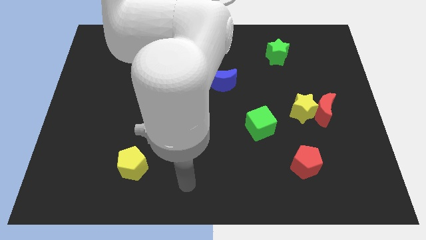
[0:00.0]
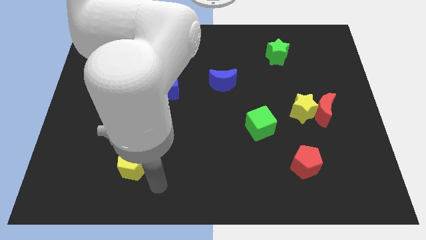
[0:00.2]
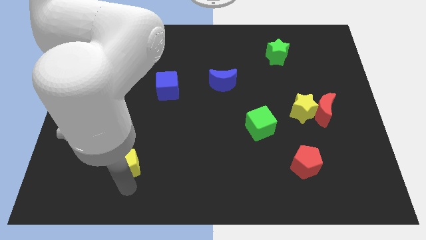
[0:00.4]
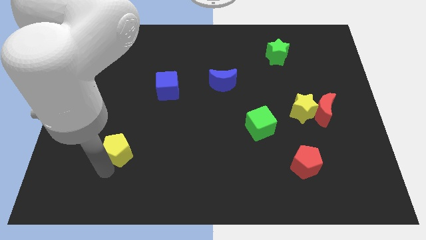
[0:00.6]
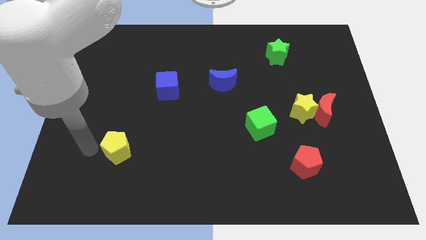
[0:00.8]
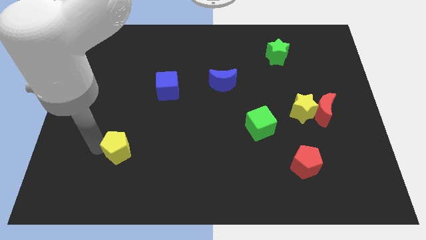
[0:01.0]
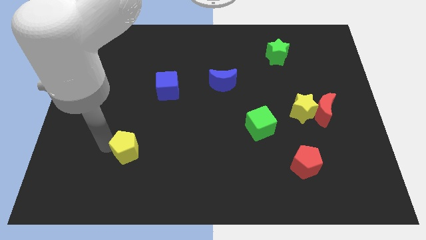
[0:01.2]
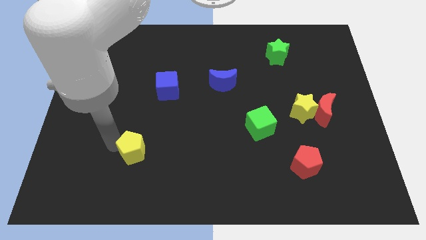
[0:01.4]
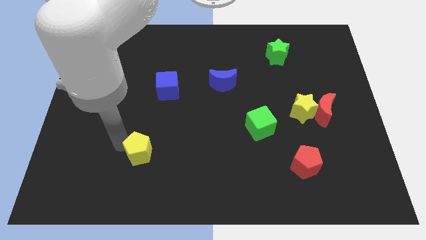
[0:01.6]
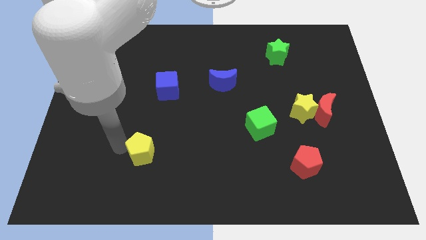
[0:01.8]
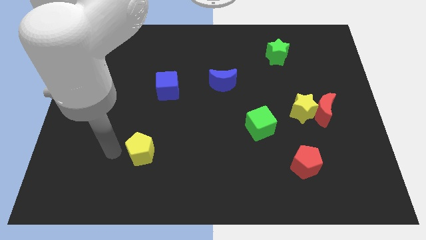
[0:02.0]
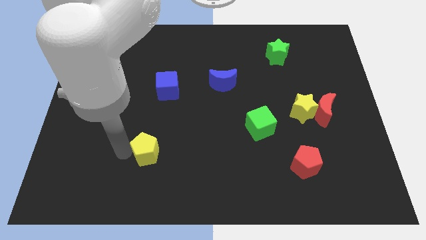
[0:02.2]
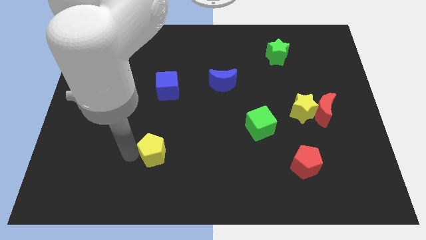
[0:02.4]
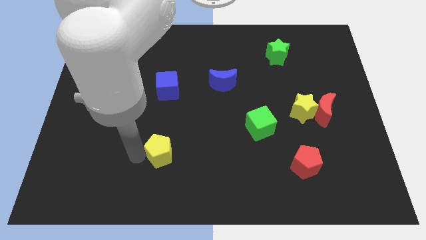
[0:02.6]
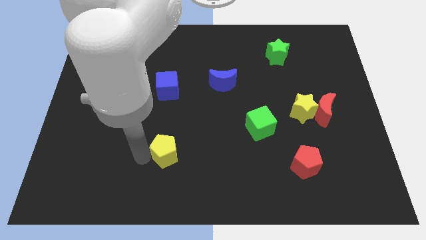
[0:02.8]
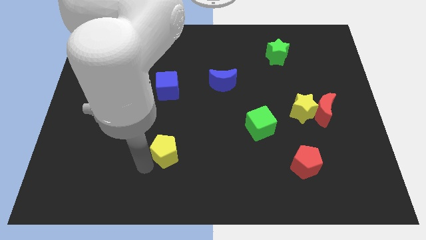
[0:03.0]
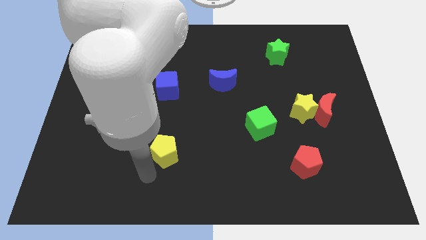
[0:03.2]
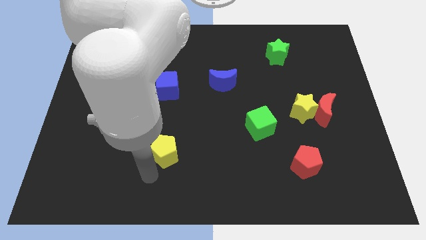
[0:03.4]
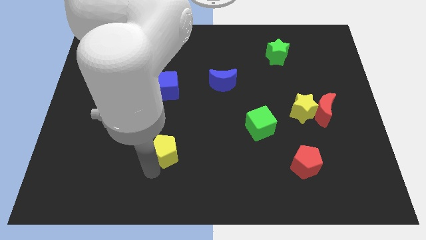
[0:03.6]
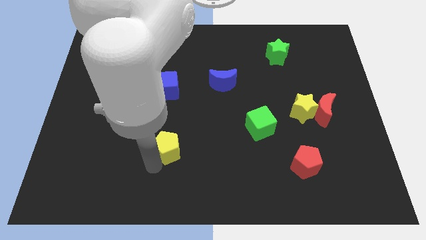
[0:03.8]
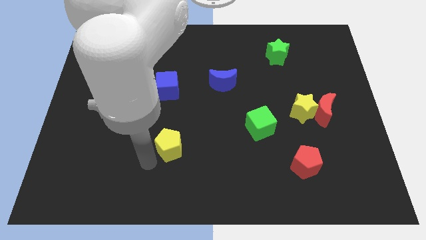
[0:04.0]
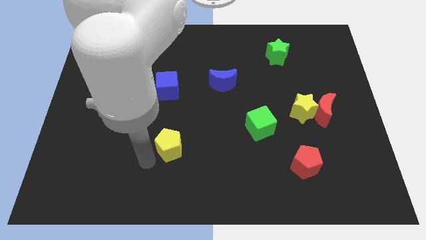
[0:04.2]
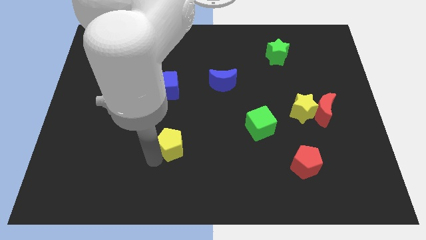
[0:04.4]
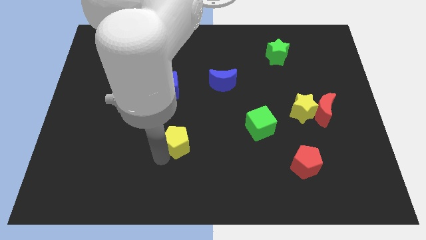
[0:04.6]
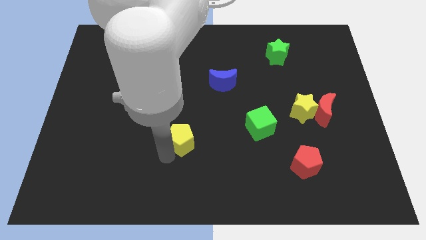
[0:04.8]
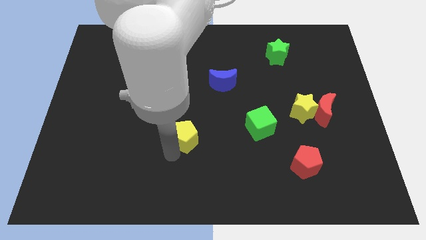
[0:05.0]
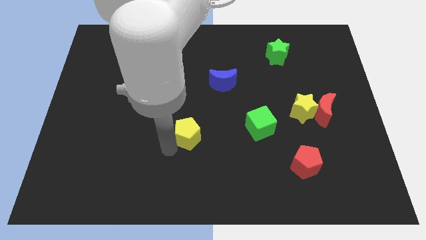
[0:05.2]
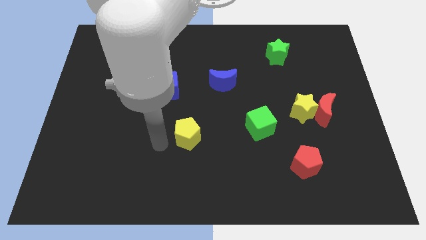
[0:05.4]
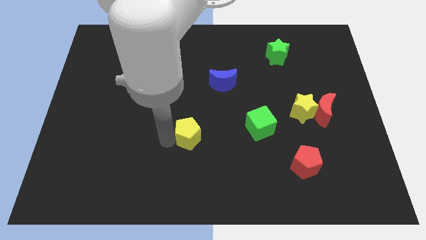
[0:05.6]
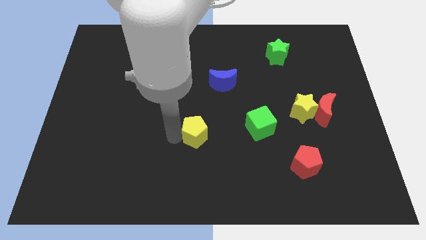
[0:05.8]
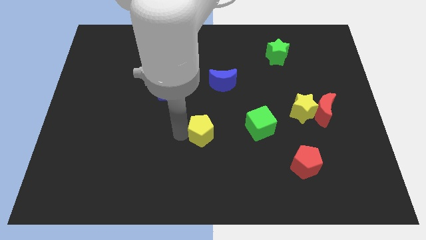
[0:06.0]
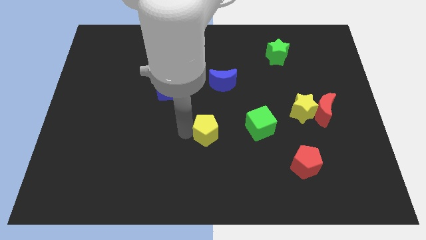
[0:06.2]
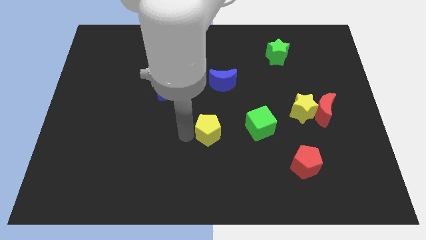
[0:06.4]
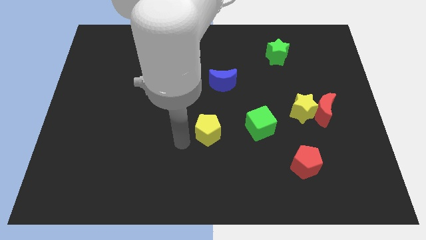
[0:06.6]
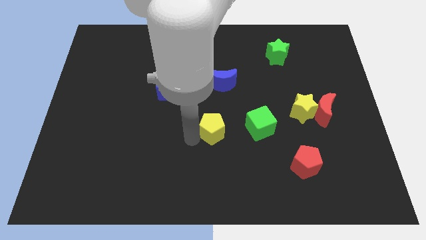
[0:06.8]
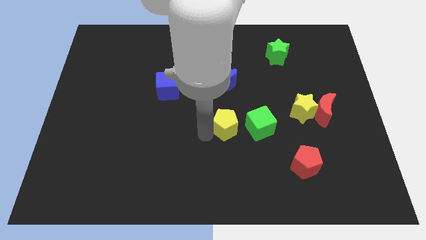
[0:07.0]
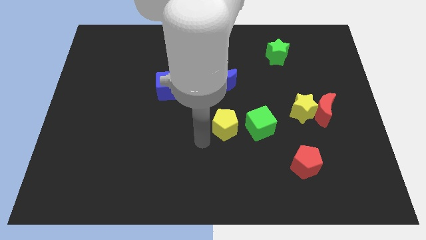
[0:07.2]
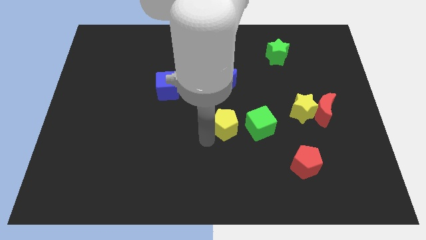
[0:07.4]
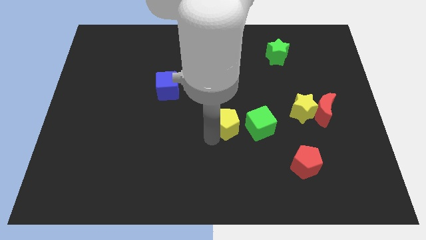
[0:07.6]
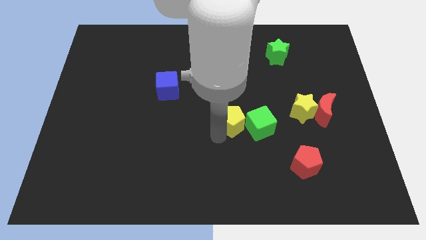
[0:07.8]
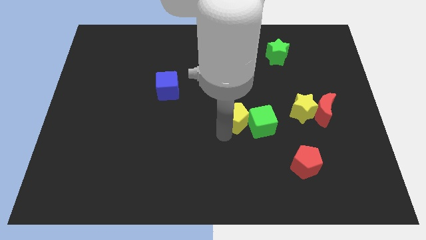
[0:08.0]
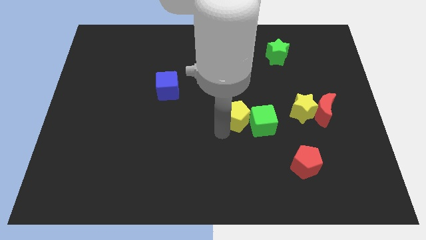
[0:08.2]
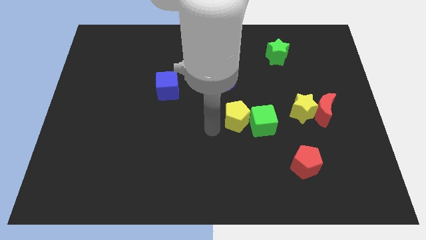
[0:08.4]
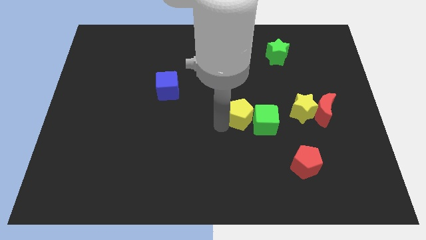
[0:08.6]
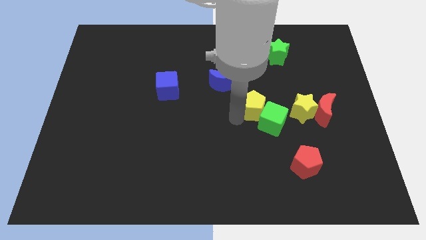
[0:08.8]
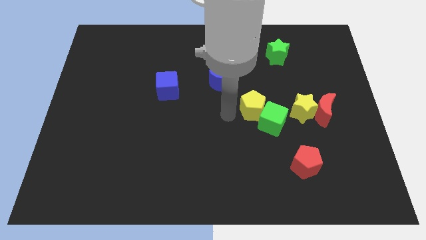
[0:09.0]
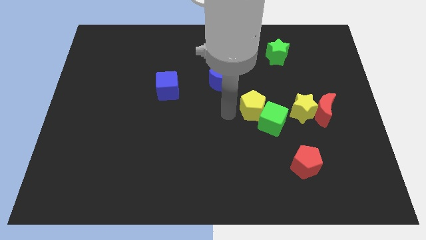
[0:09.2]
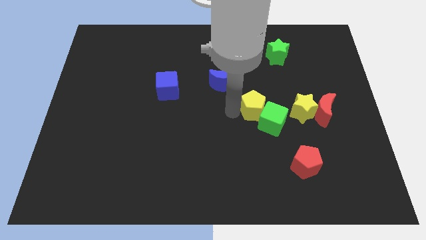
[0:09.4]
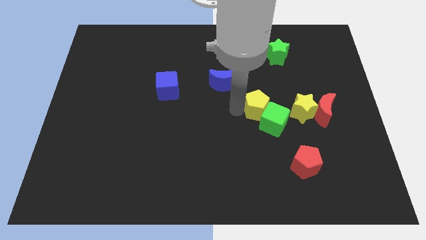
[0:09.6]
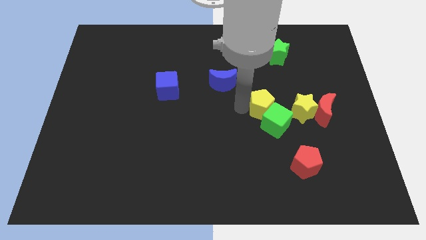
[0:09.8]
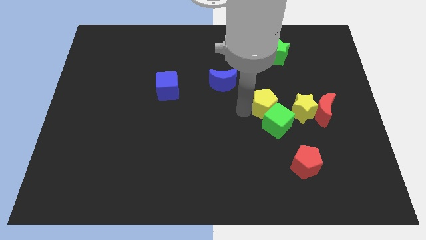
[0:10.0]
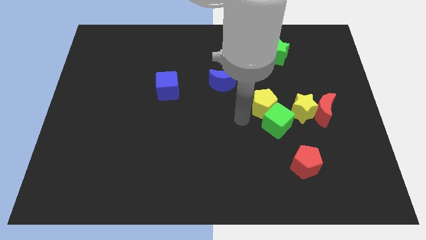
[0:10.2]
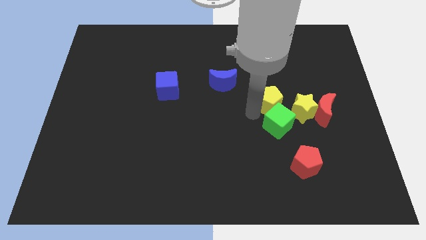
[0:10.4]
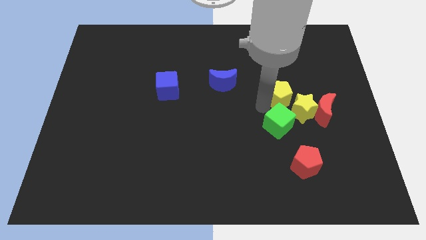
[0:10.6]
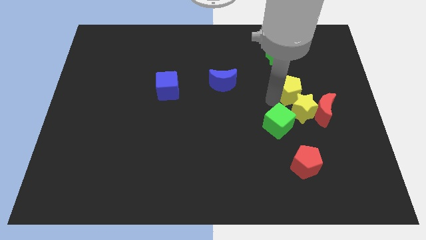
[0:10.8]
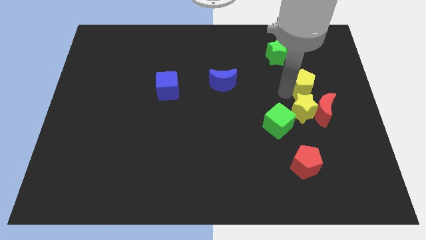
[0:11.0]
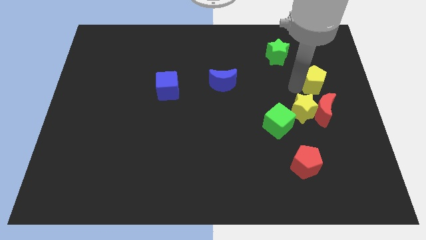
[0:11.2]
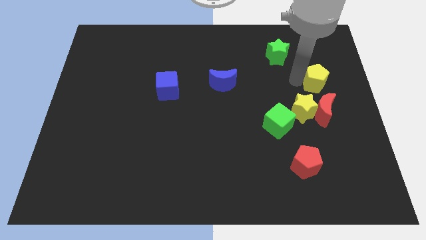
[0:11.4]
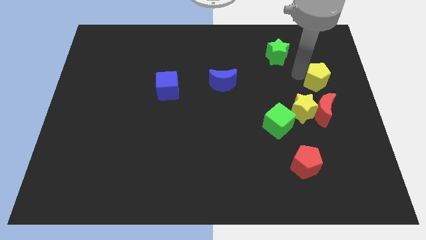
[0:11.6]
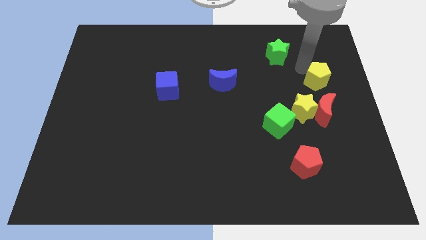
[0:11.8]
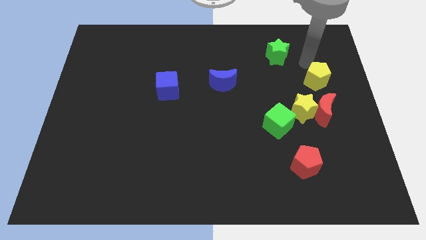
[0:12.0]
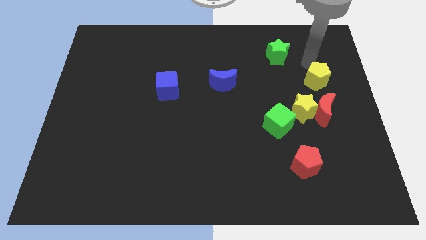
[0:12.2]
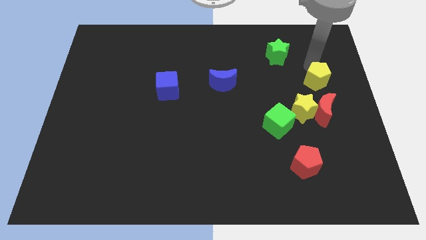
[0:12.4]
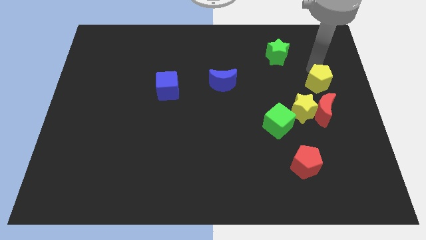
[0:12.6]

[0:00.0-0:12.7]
move the yellow pentagon to the right side
